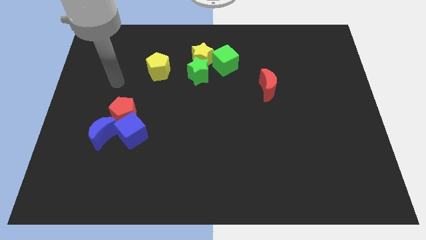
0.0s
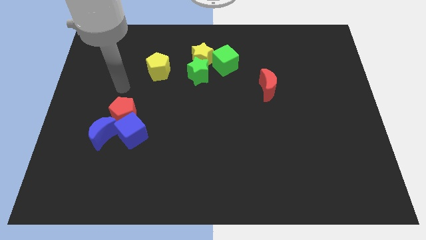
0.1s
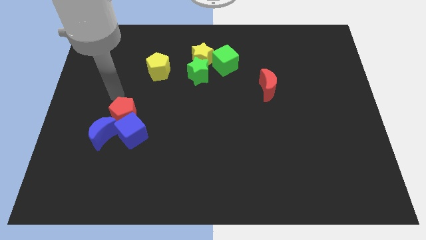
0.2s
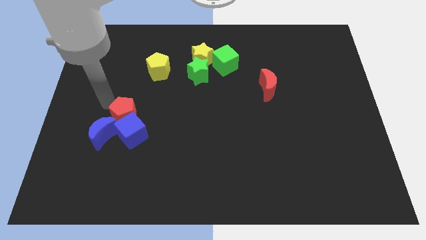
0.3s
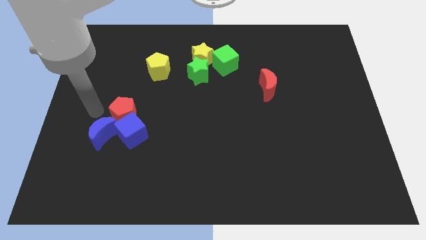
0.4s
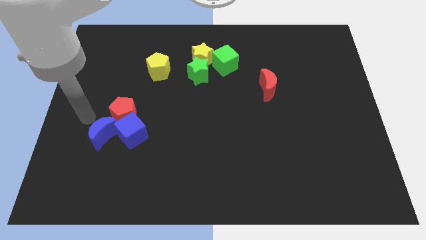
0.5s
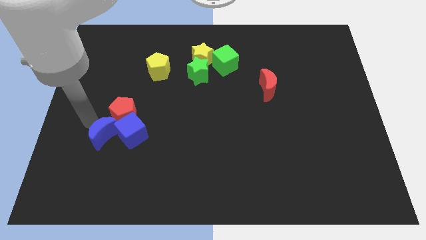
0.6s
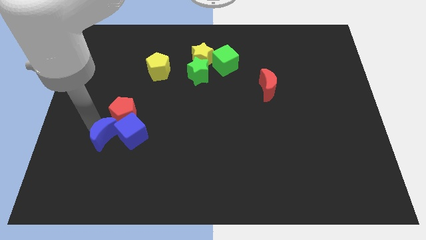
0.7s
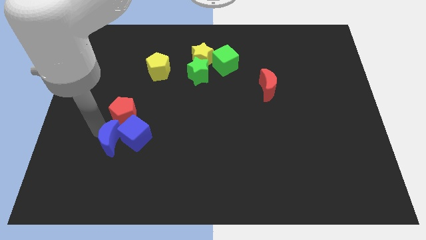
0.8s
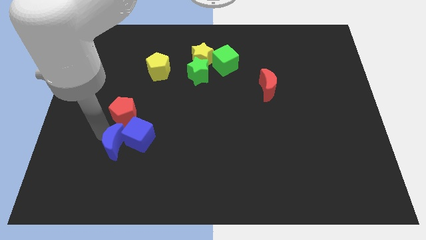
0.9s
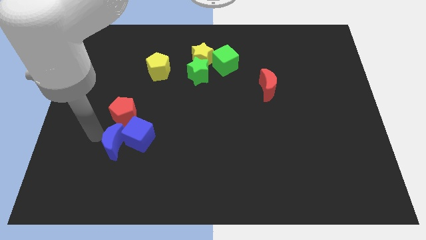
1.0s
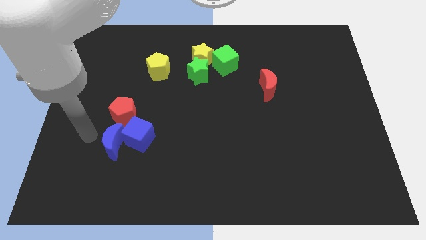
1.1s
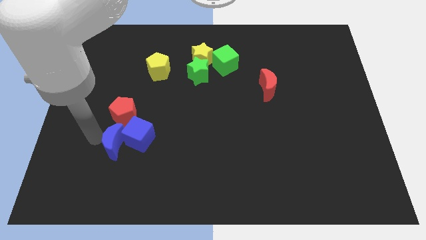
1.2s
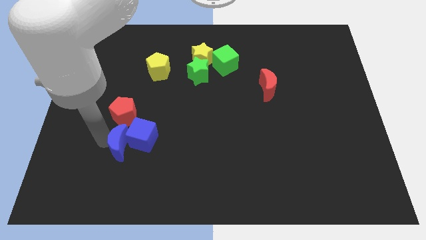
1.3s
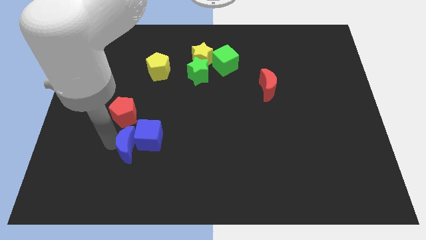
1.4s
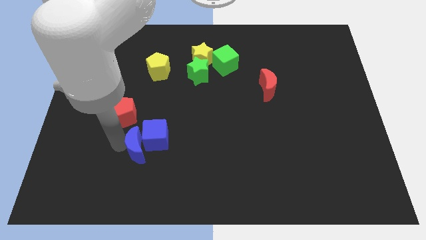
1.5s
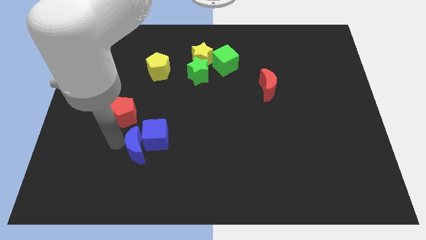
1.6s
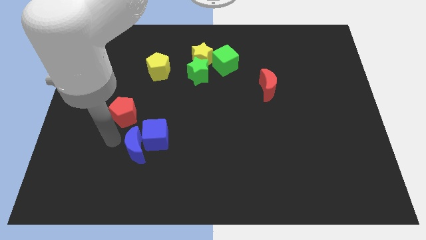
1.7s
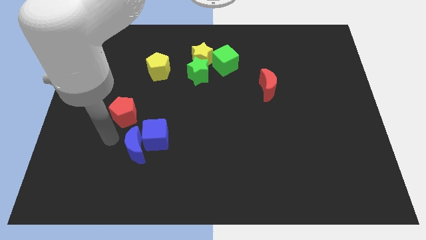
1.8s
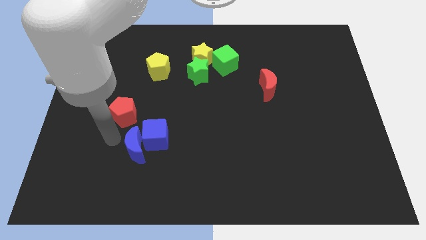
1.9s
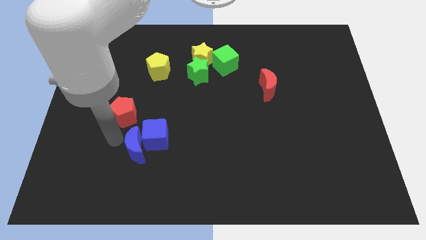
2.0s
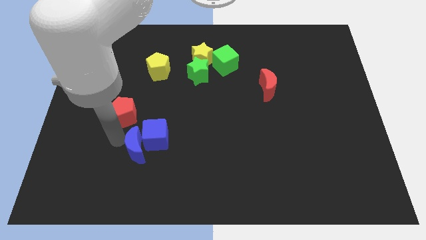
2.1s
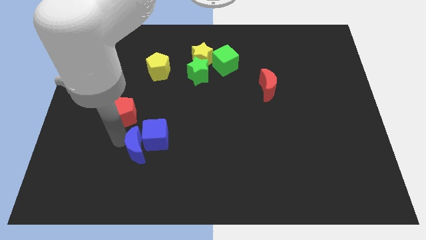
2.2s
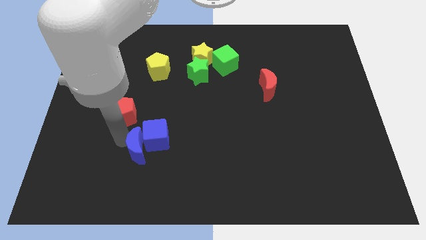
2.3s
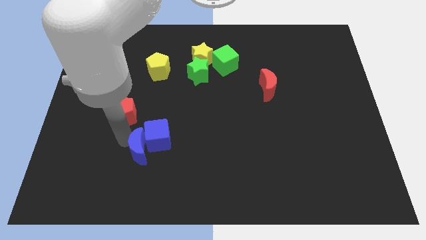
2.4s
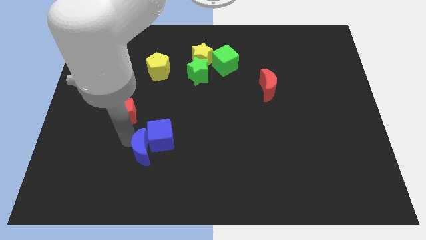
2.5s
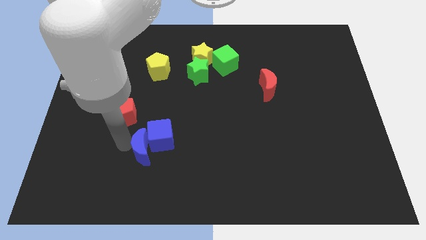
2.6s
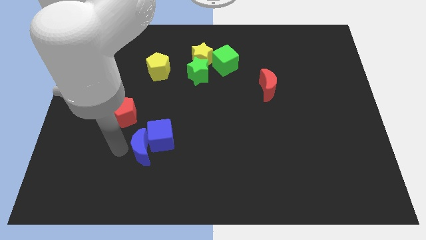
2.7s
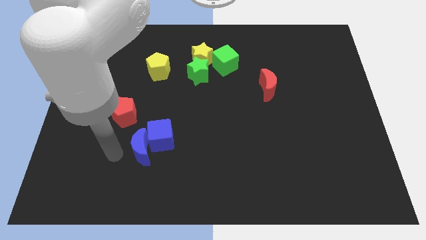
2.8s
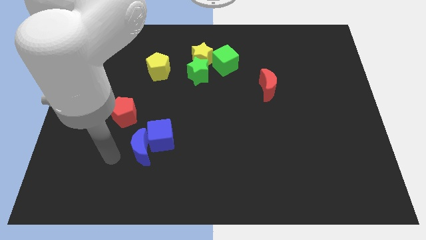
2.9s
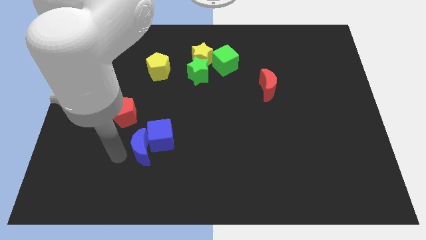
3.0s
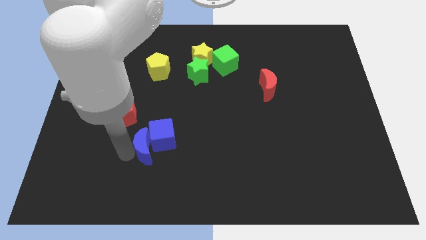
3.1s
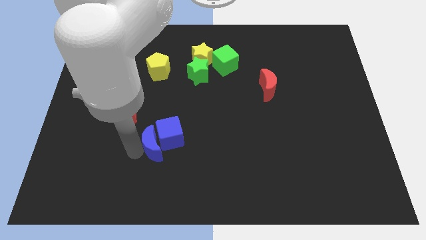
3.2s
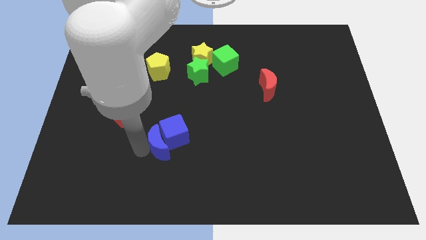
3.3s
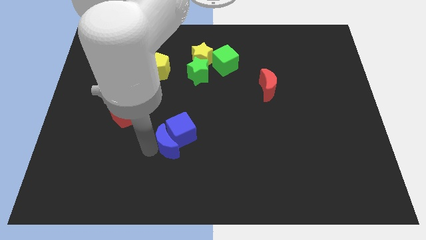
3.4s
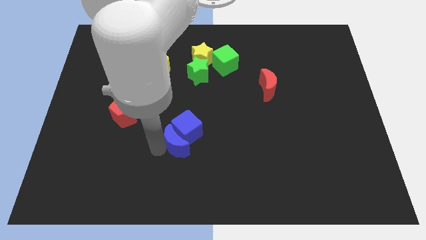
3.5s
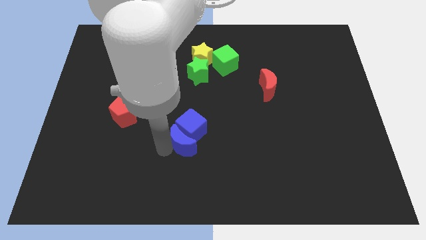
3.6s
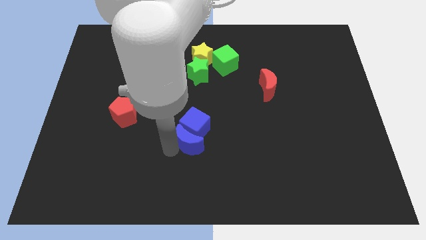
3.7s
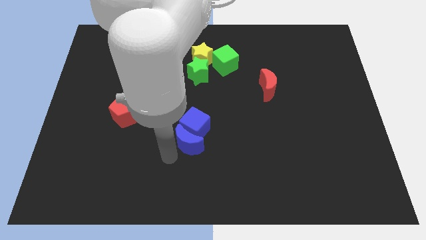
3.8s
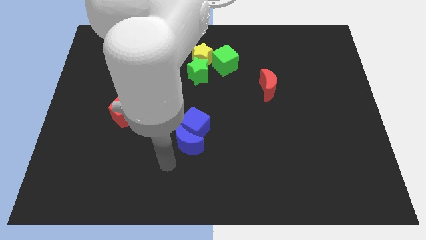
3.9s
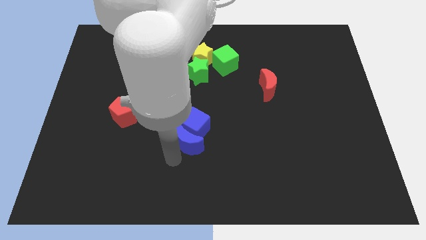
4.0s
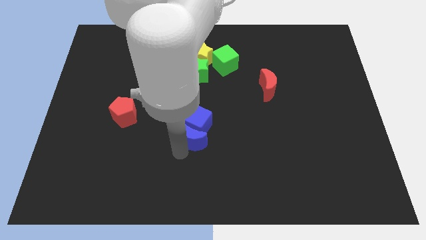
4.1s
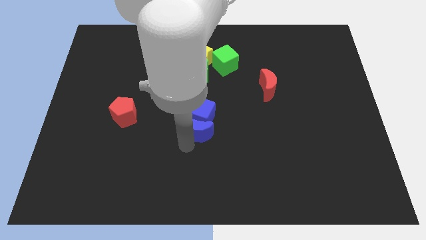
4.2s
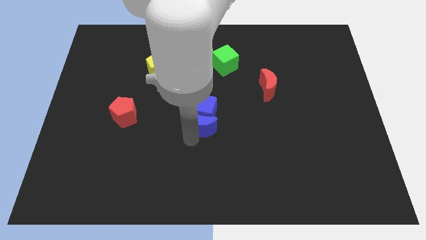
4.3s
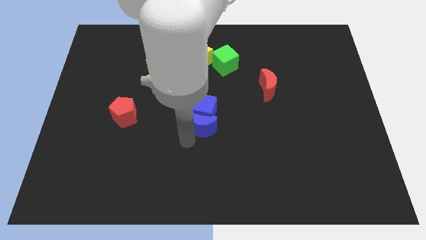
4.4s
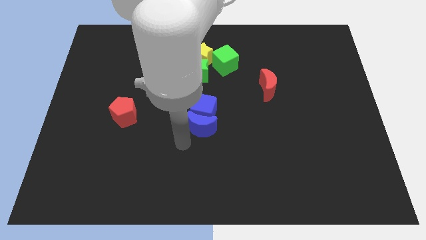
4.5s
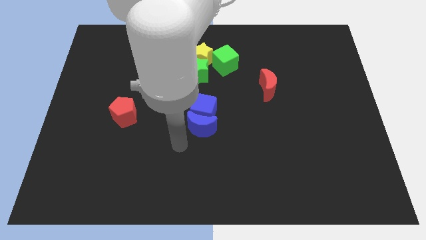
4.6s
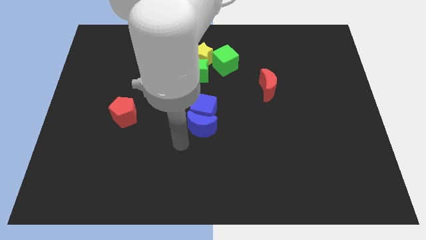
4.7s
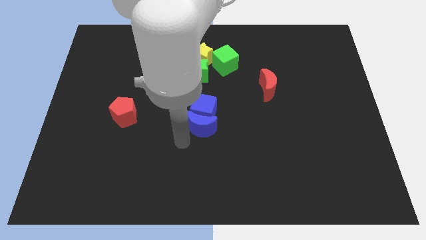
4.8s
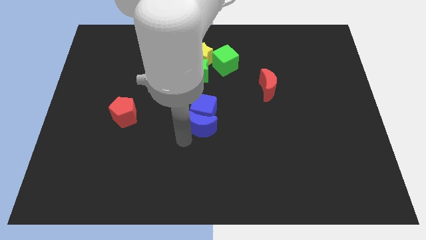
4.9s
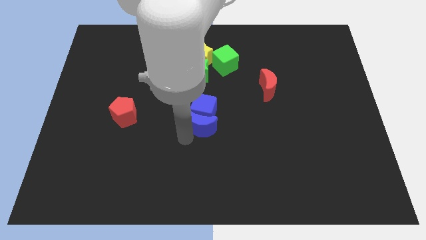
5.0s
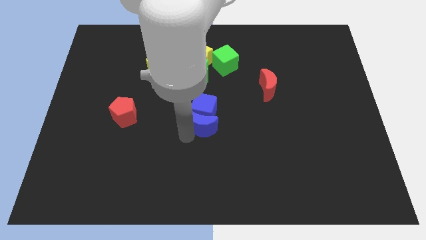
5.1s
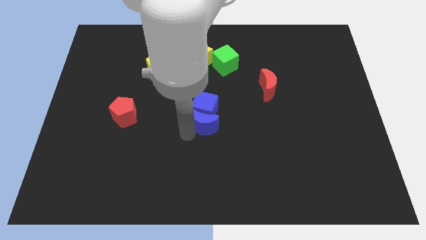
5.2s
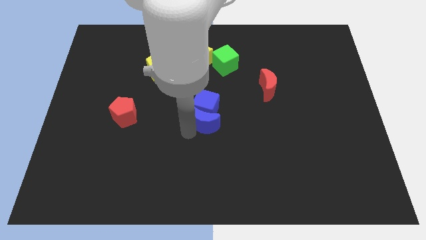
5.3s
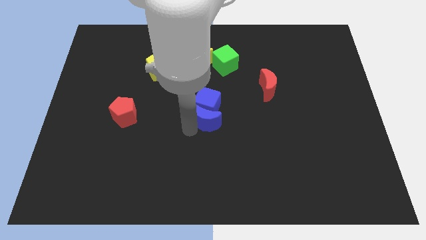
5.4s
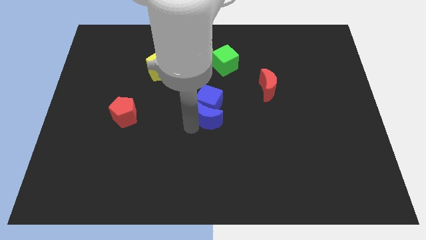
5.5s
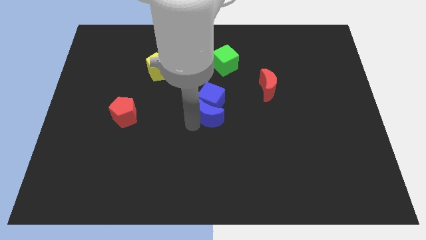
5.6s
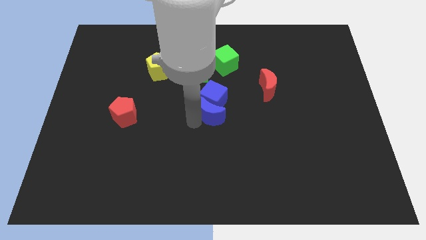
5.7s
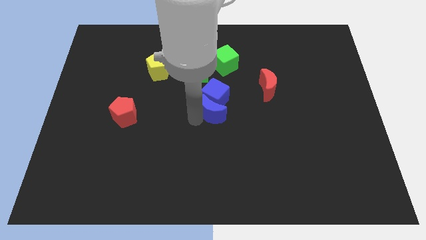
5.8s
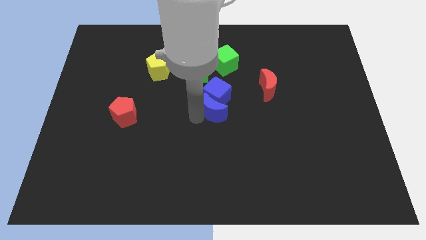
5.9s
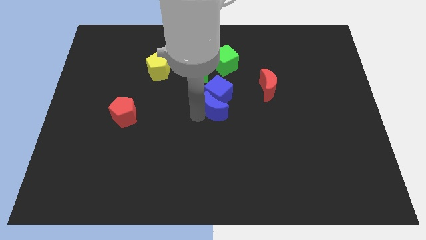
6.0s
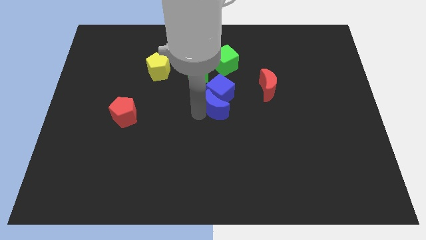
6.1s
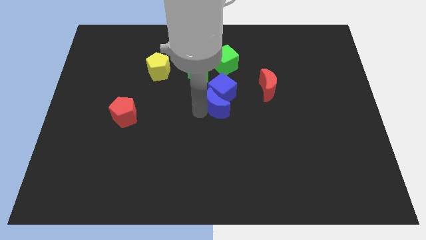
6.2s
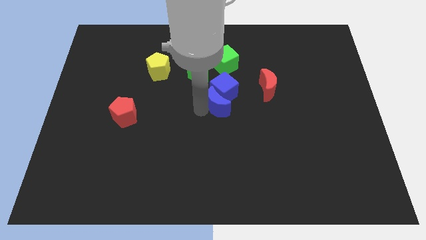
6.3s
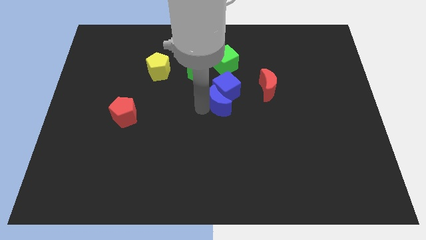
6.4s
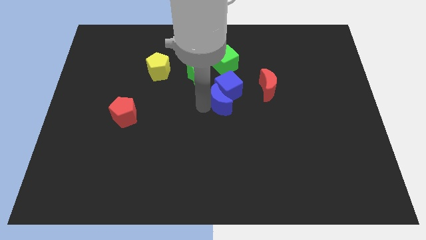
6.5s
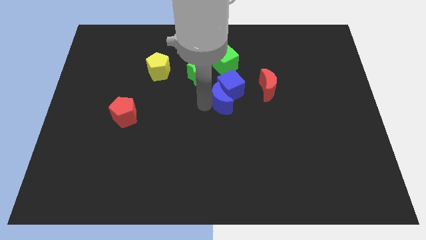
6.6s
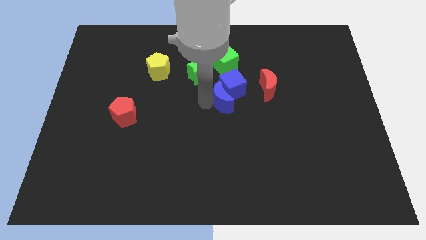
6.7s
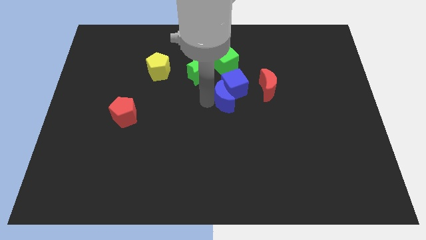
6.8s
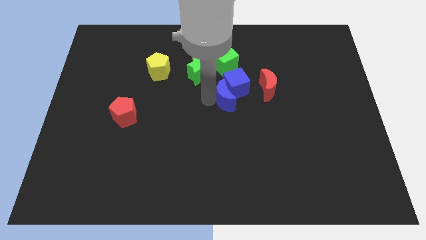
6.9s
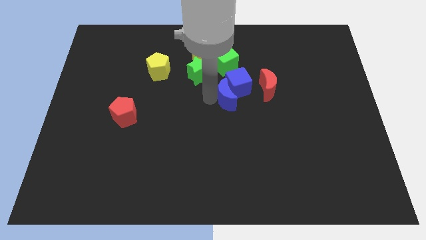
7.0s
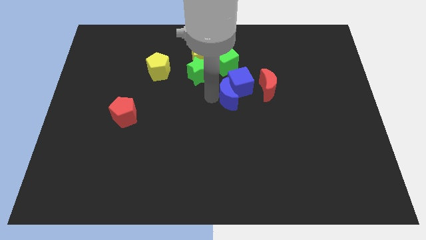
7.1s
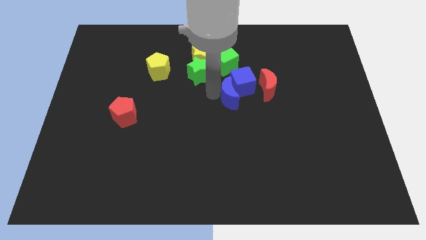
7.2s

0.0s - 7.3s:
slide the blue moon to the bottom left side of the red moon
